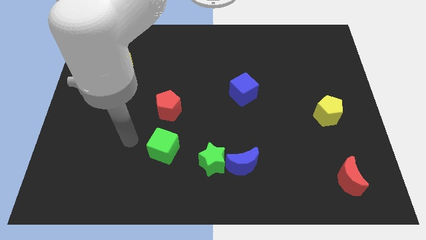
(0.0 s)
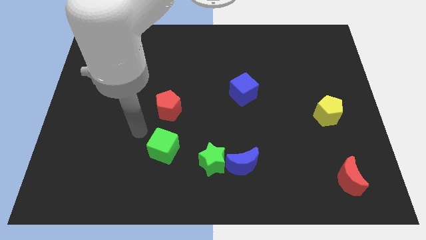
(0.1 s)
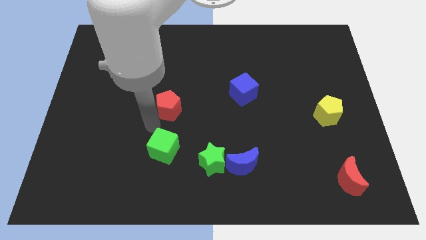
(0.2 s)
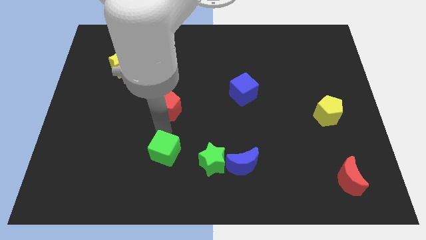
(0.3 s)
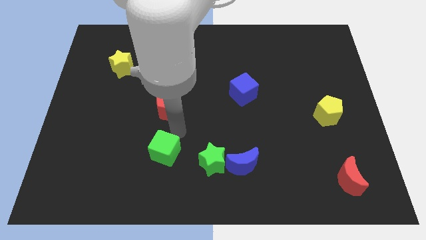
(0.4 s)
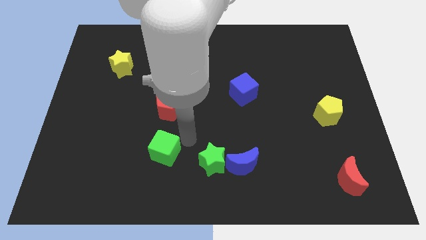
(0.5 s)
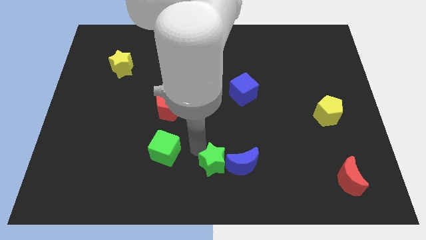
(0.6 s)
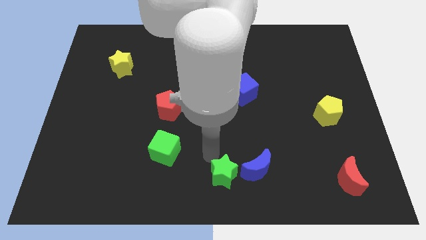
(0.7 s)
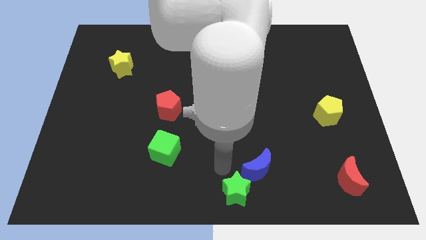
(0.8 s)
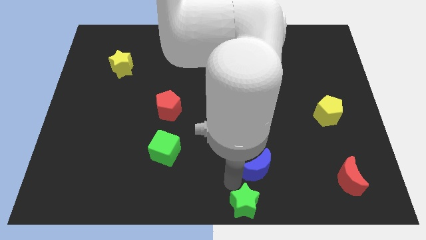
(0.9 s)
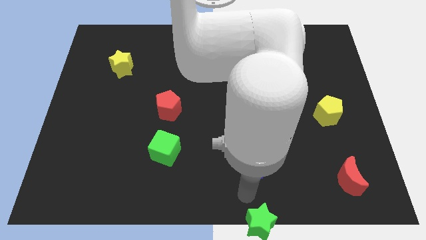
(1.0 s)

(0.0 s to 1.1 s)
separate the blue moon from the green star

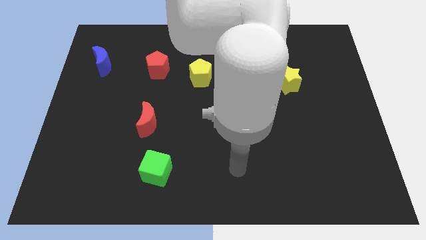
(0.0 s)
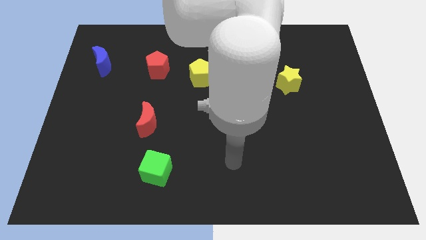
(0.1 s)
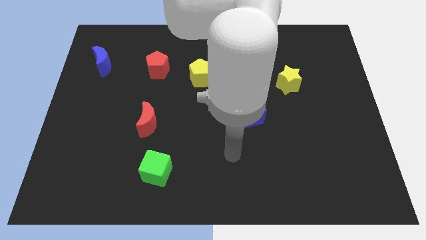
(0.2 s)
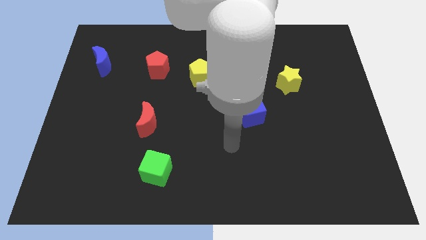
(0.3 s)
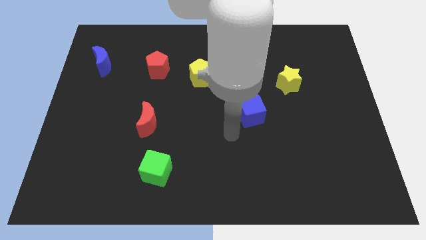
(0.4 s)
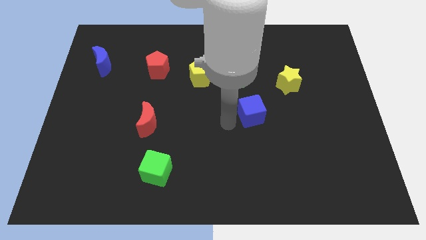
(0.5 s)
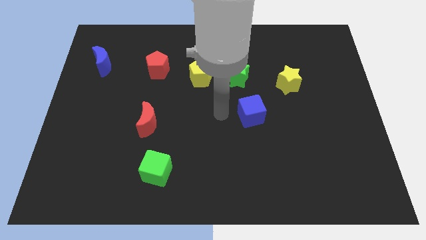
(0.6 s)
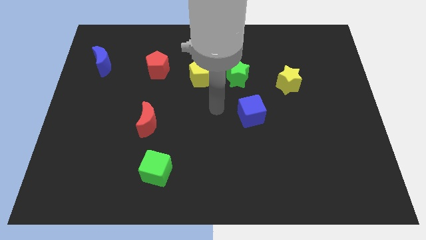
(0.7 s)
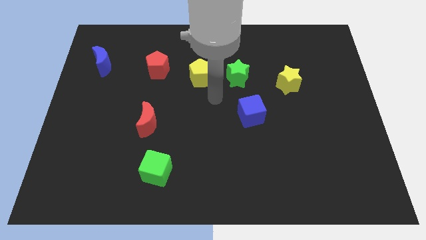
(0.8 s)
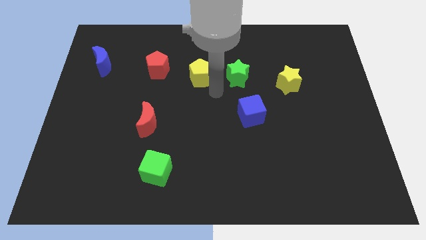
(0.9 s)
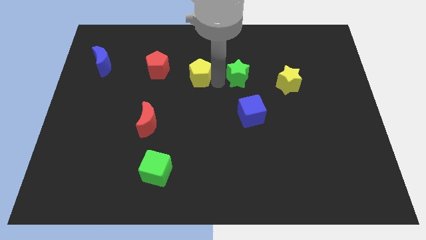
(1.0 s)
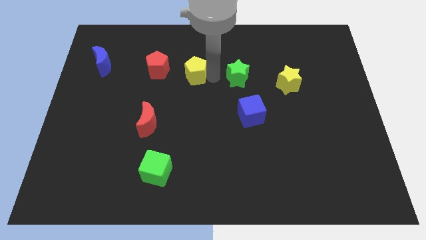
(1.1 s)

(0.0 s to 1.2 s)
pull the green star apart from the yellow pentagon

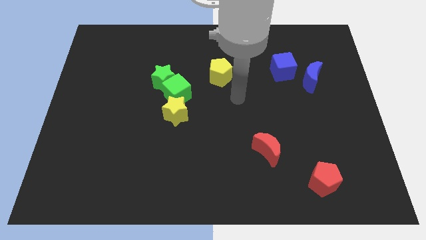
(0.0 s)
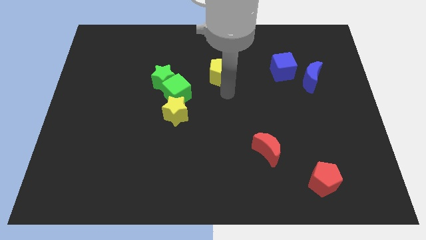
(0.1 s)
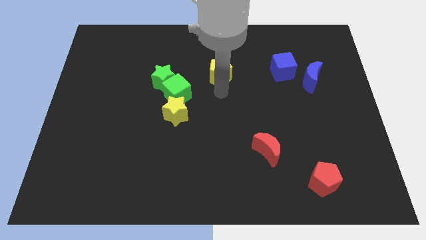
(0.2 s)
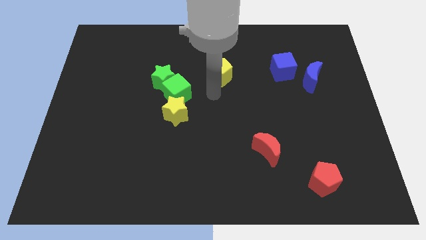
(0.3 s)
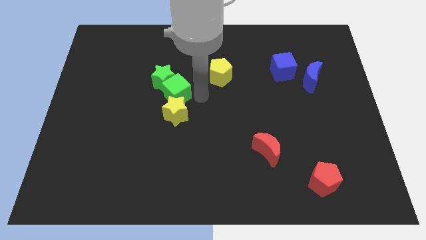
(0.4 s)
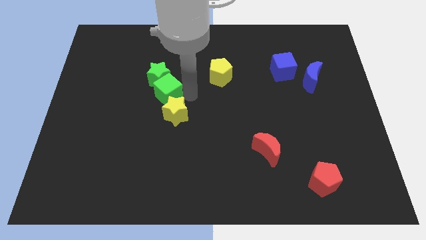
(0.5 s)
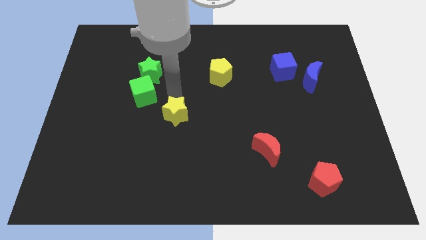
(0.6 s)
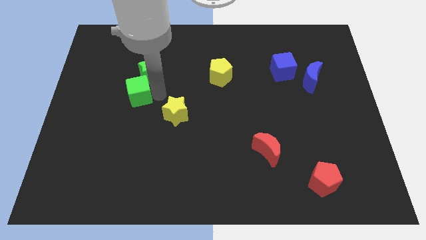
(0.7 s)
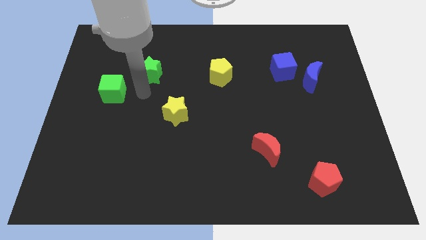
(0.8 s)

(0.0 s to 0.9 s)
separate the green star from the green cube

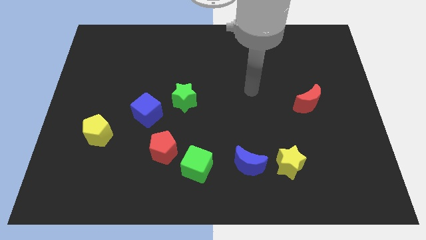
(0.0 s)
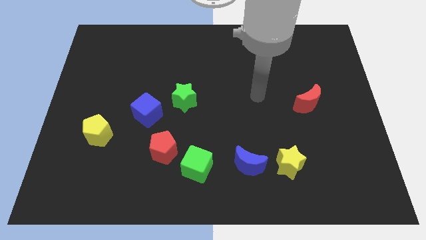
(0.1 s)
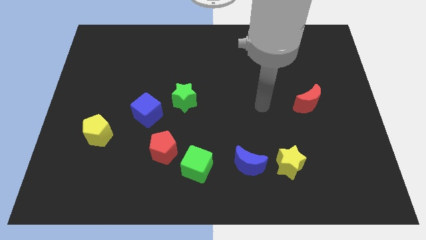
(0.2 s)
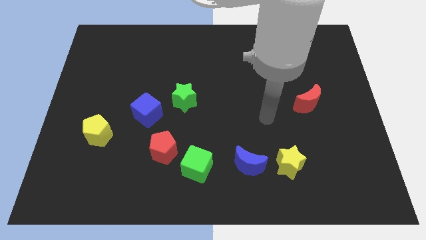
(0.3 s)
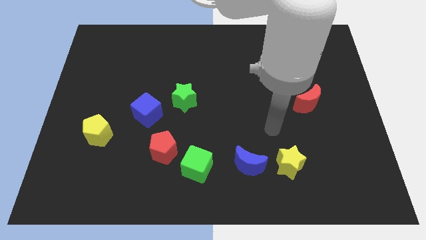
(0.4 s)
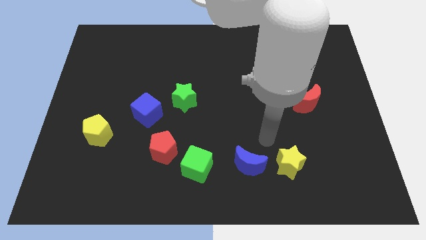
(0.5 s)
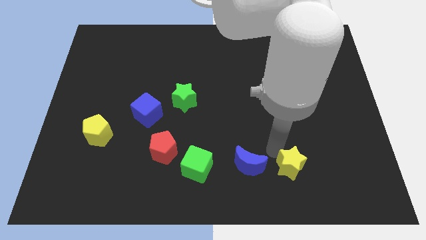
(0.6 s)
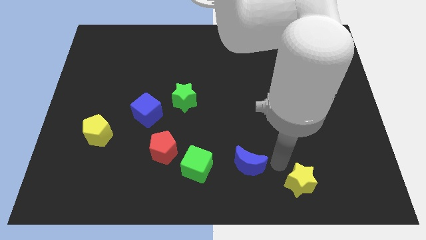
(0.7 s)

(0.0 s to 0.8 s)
pull the blue moon apart from the yellow star

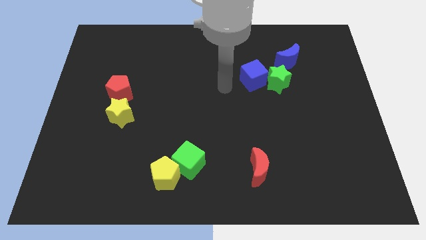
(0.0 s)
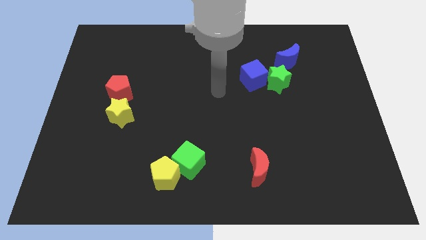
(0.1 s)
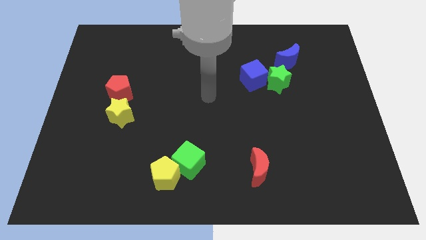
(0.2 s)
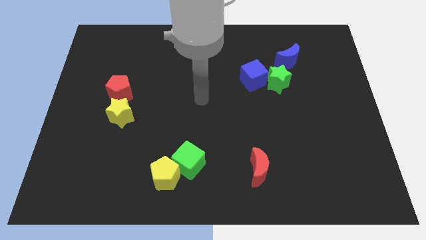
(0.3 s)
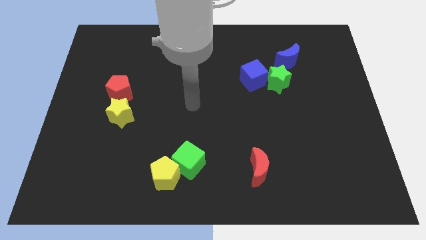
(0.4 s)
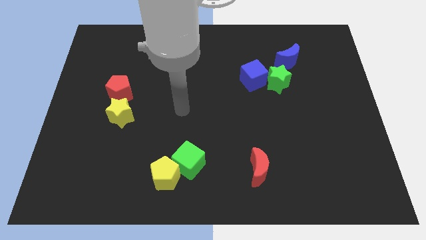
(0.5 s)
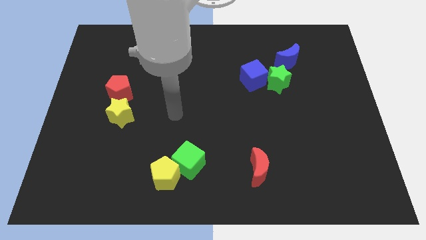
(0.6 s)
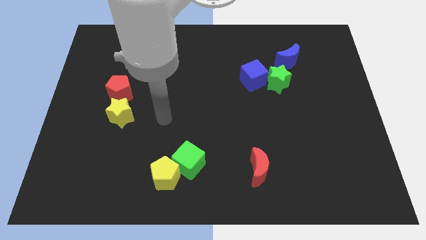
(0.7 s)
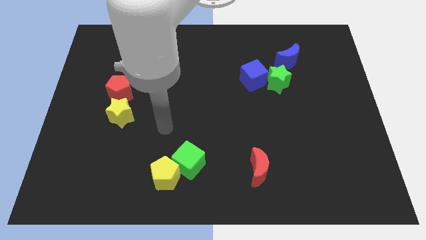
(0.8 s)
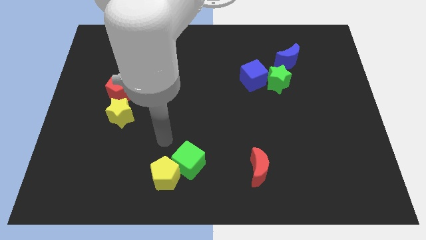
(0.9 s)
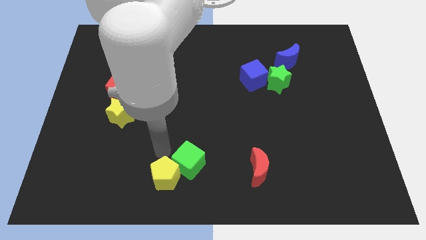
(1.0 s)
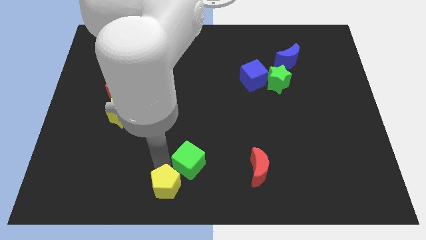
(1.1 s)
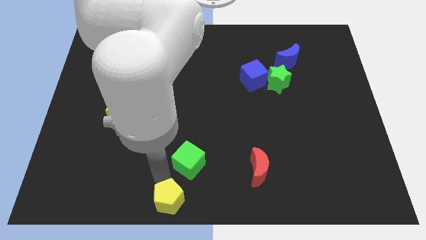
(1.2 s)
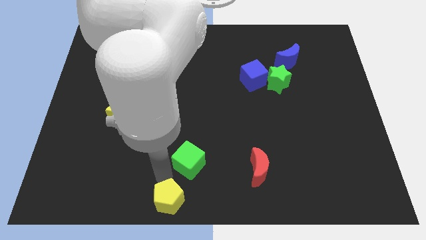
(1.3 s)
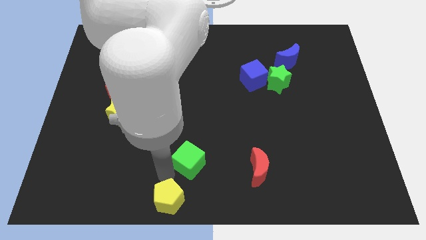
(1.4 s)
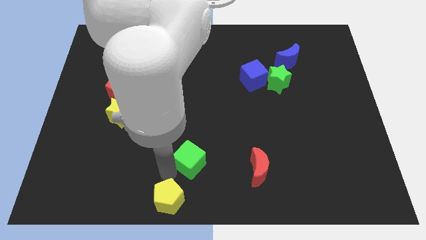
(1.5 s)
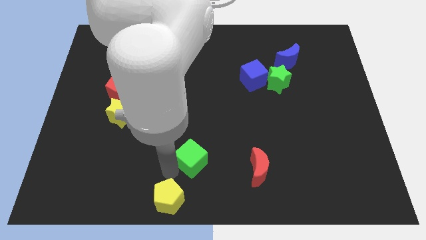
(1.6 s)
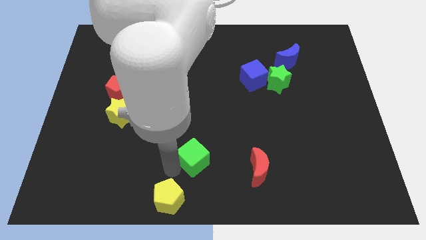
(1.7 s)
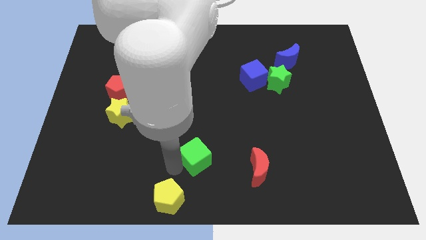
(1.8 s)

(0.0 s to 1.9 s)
move the green cube away from the yellow pentagon

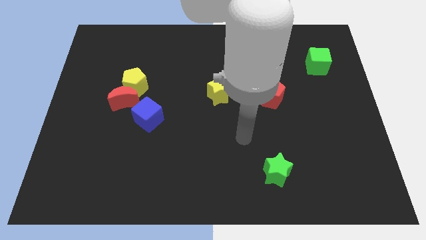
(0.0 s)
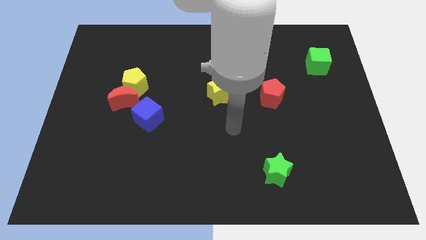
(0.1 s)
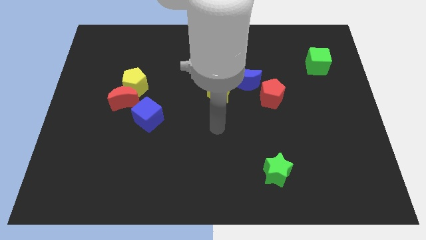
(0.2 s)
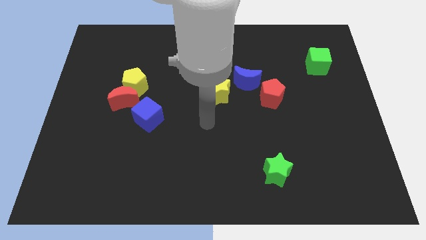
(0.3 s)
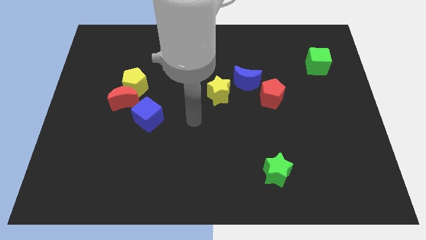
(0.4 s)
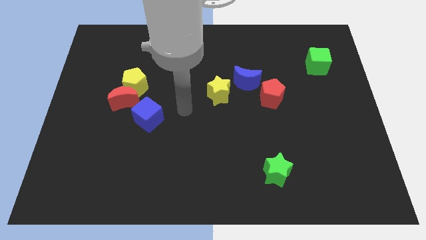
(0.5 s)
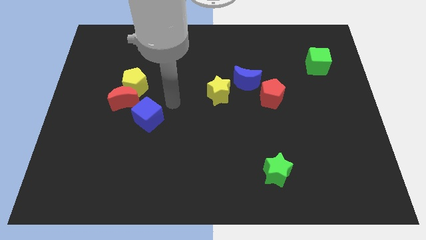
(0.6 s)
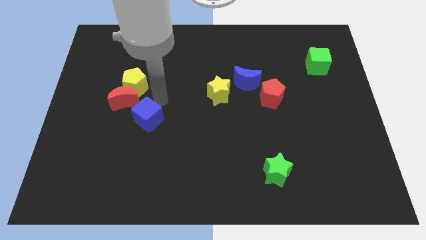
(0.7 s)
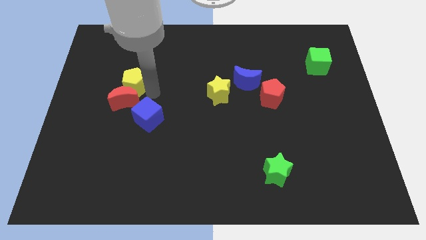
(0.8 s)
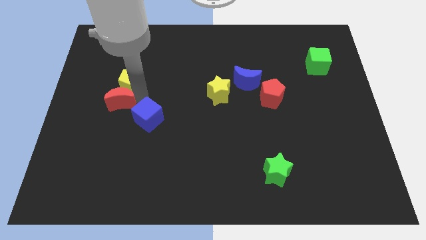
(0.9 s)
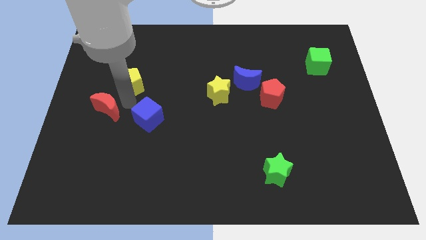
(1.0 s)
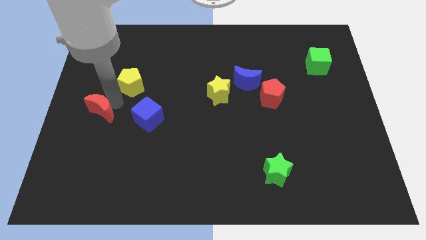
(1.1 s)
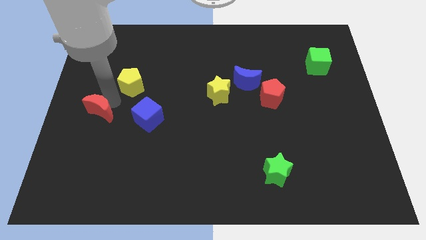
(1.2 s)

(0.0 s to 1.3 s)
separate the yellow pentagon from the red moon

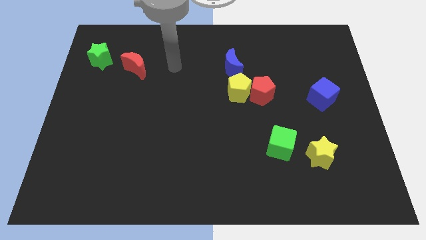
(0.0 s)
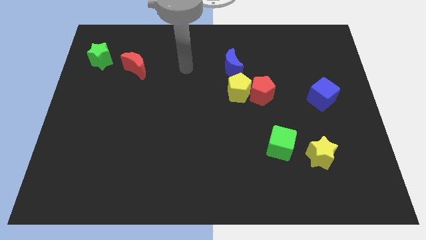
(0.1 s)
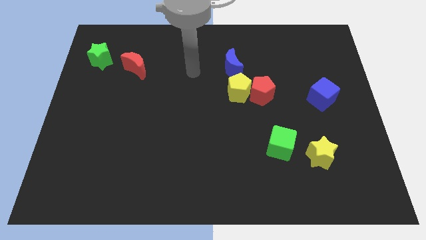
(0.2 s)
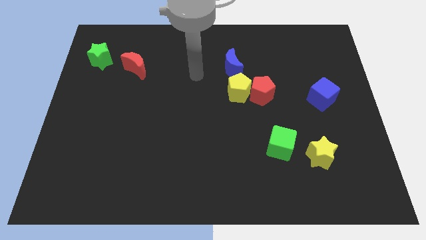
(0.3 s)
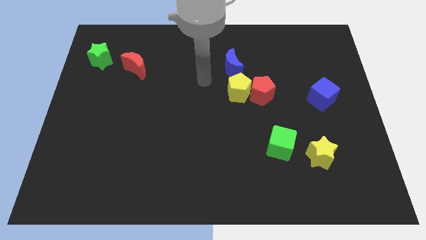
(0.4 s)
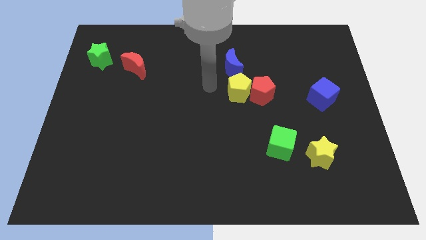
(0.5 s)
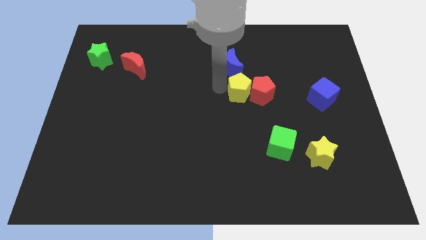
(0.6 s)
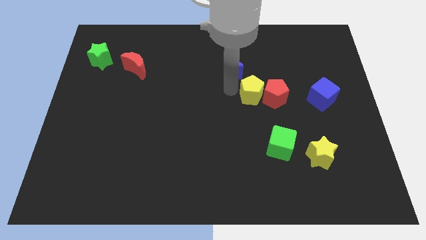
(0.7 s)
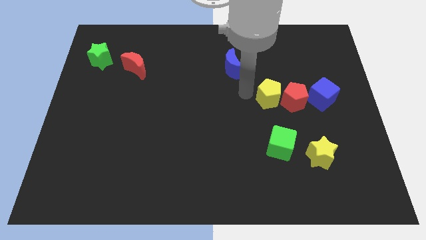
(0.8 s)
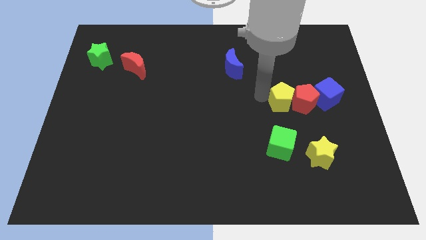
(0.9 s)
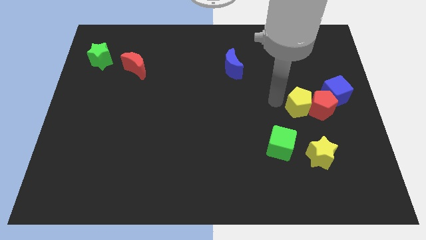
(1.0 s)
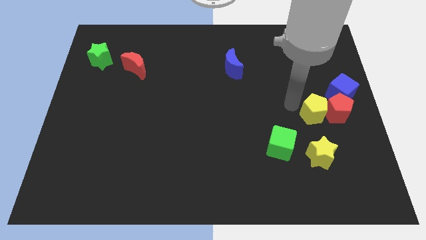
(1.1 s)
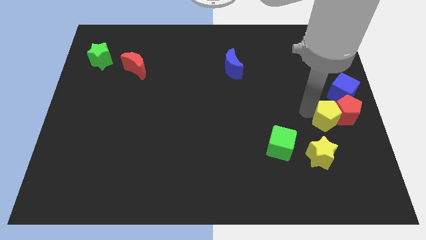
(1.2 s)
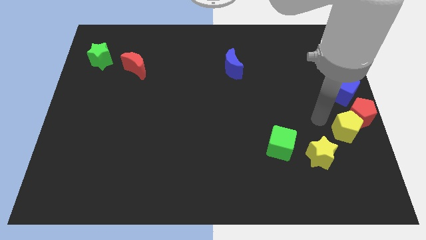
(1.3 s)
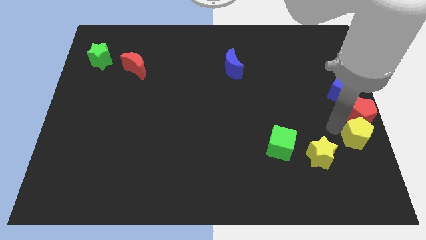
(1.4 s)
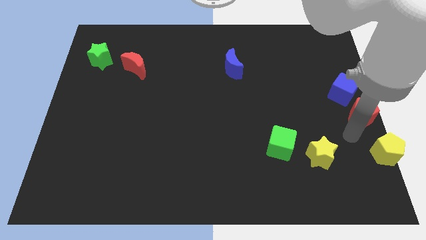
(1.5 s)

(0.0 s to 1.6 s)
pull the red pentagon apart from the yellow pentagon

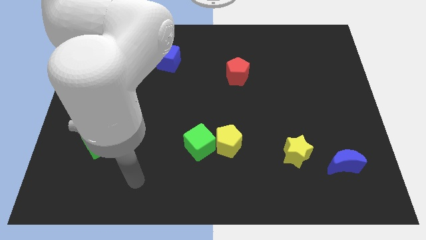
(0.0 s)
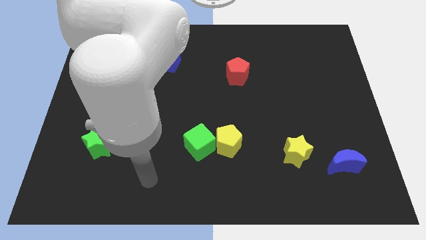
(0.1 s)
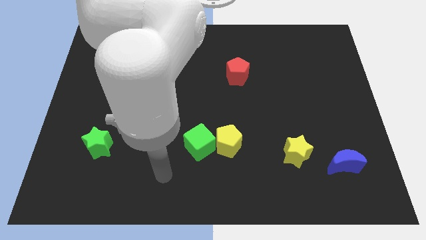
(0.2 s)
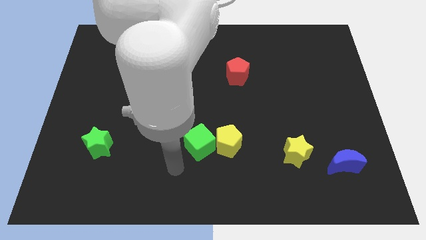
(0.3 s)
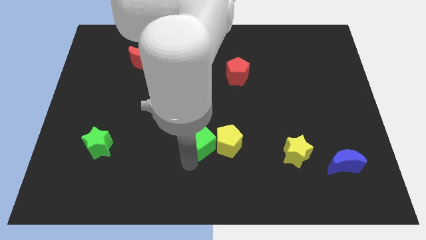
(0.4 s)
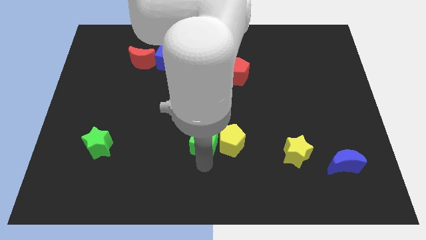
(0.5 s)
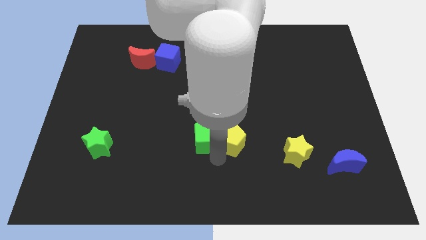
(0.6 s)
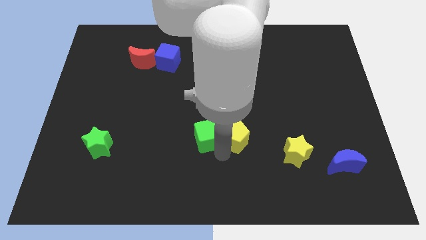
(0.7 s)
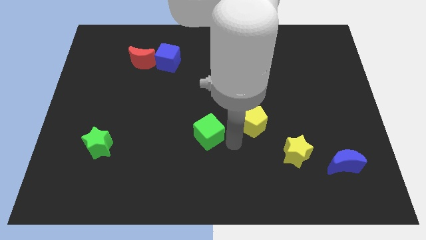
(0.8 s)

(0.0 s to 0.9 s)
pull the green cube apart from the yellow pentagon
